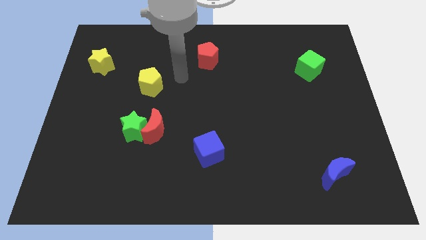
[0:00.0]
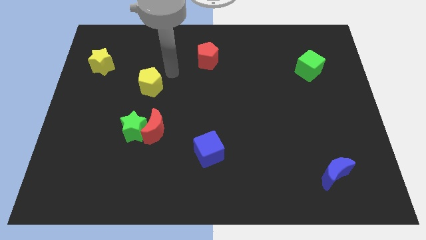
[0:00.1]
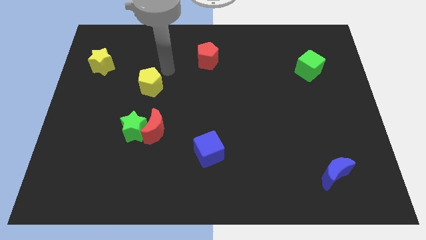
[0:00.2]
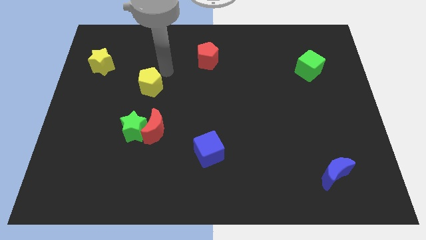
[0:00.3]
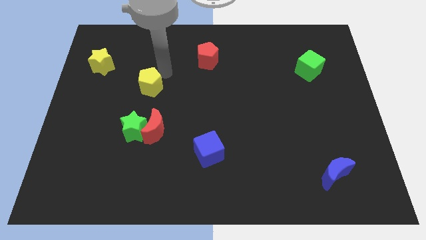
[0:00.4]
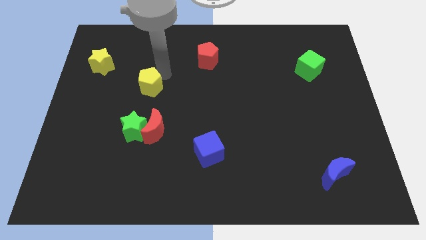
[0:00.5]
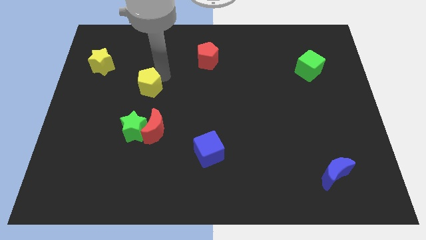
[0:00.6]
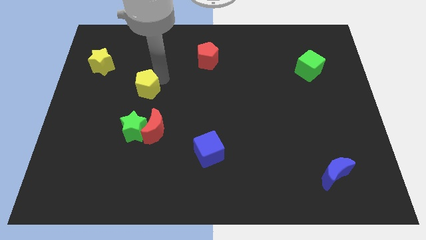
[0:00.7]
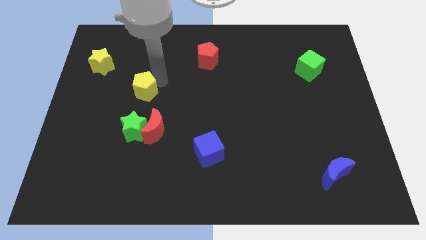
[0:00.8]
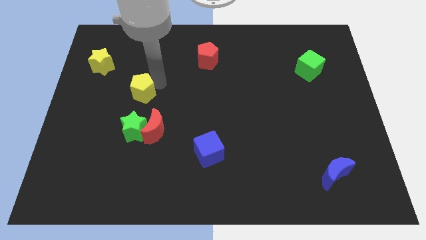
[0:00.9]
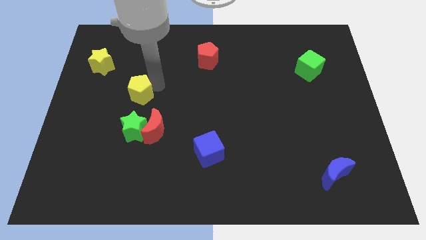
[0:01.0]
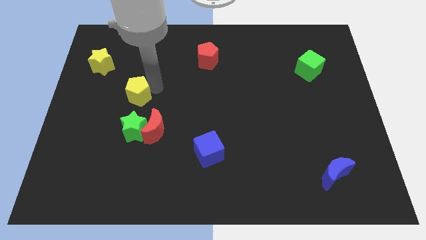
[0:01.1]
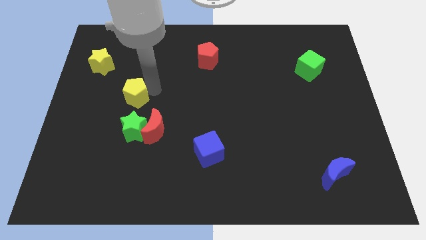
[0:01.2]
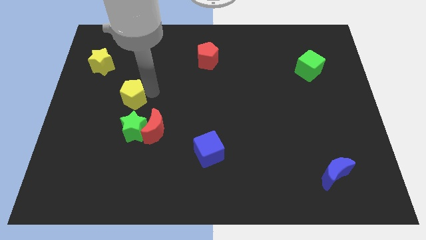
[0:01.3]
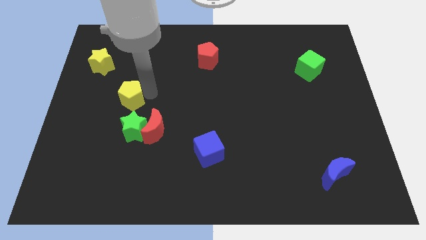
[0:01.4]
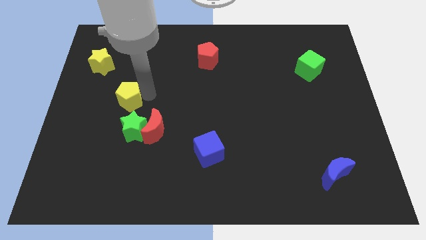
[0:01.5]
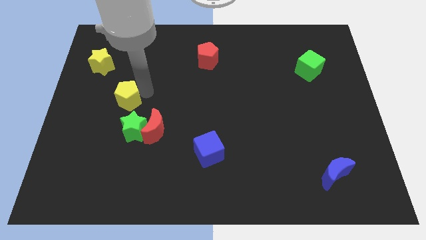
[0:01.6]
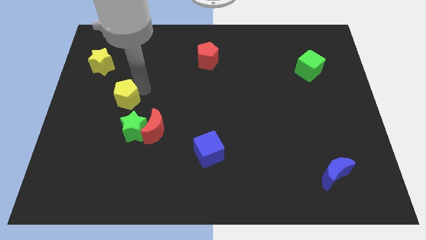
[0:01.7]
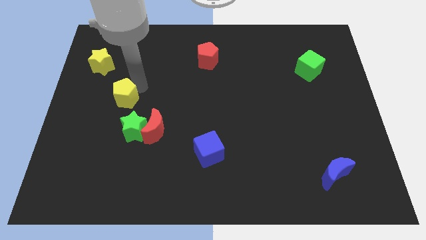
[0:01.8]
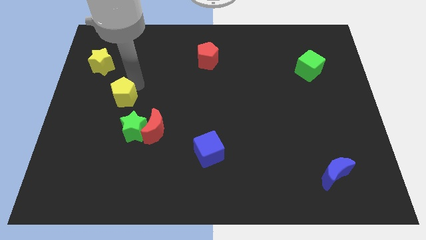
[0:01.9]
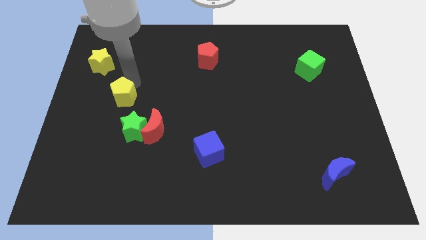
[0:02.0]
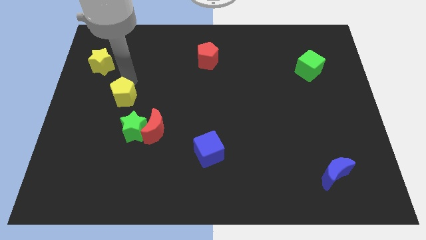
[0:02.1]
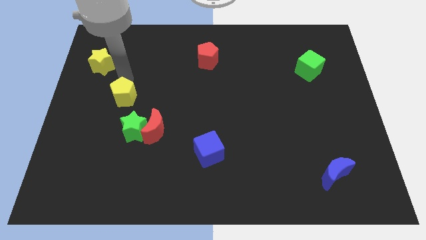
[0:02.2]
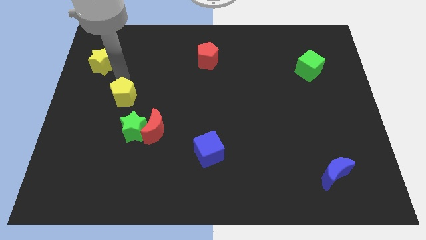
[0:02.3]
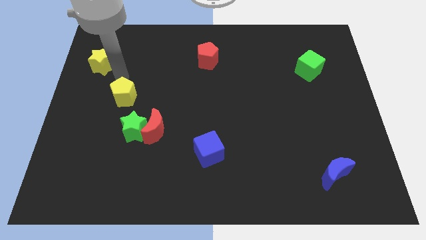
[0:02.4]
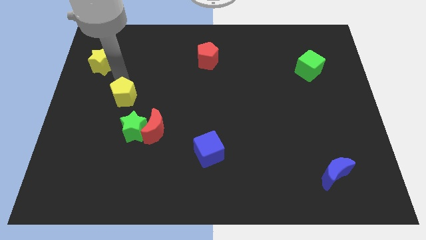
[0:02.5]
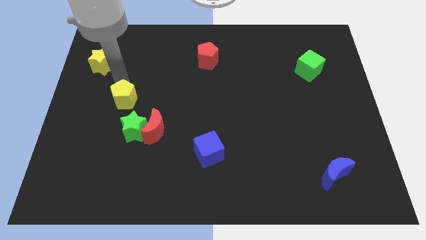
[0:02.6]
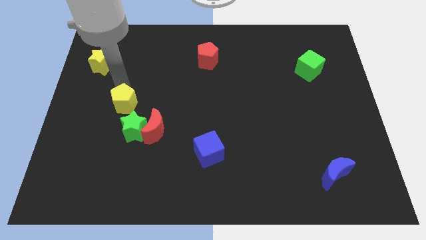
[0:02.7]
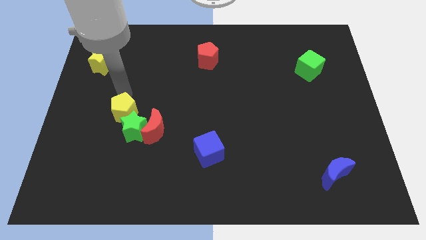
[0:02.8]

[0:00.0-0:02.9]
slightly move the yellow pentagon down

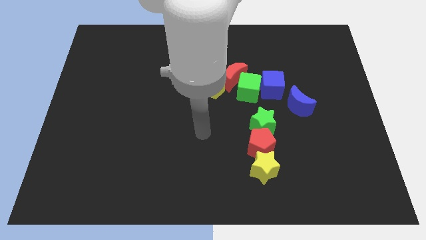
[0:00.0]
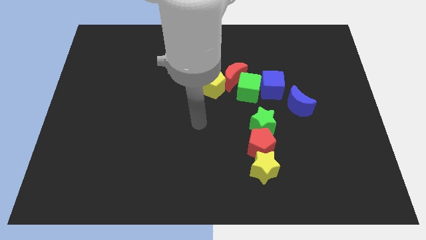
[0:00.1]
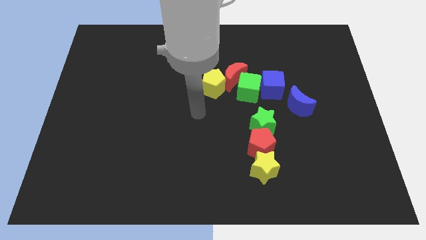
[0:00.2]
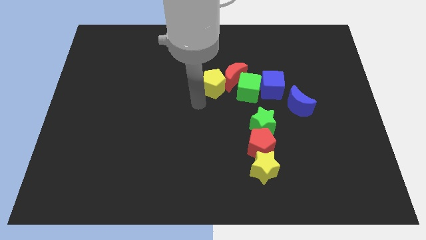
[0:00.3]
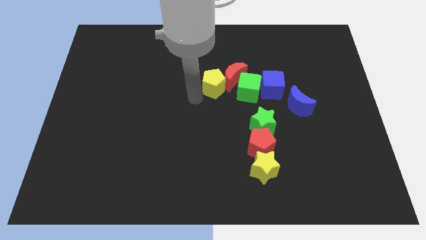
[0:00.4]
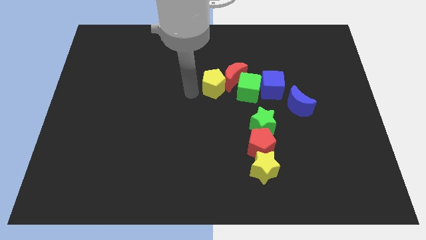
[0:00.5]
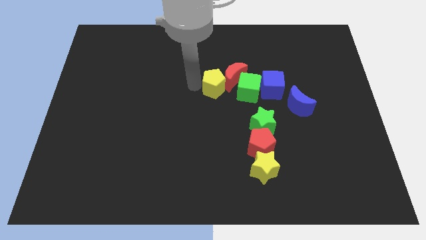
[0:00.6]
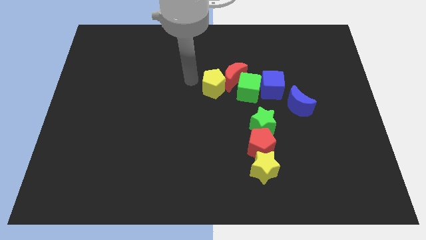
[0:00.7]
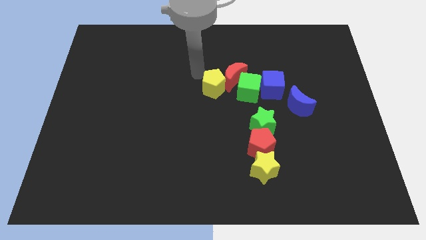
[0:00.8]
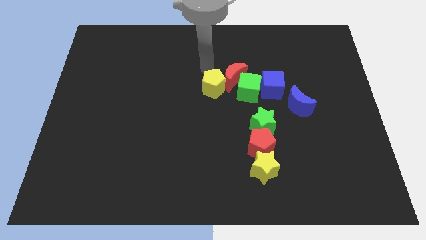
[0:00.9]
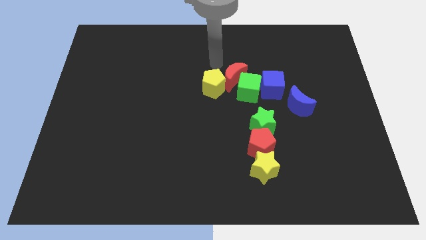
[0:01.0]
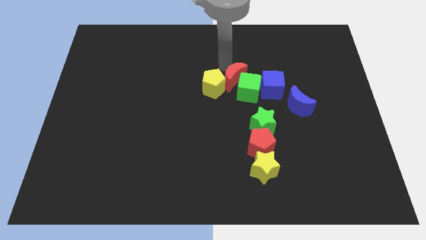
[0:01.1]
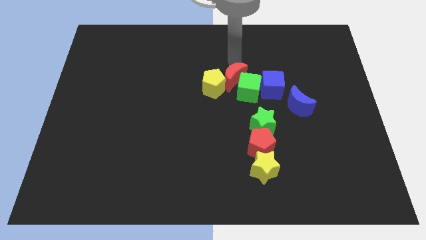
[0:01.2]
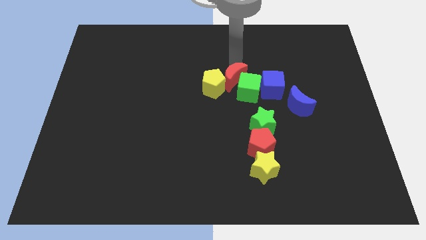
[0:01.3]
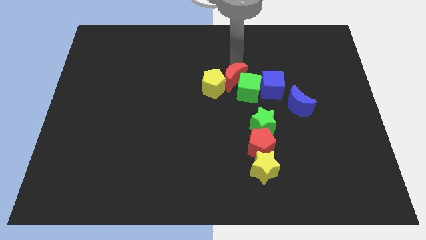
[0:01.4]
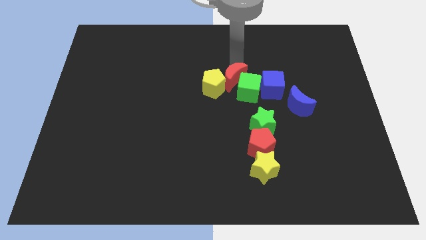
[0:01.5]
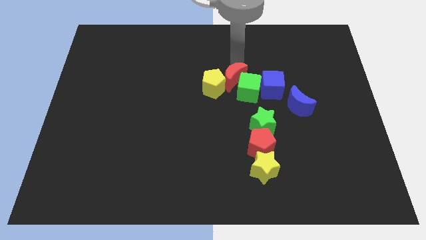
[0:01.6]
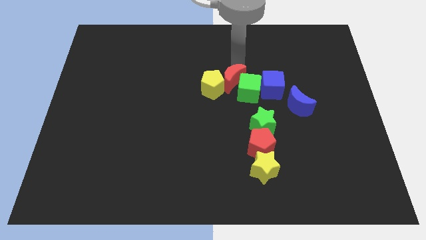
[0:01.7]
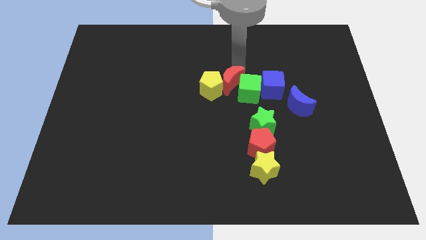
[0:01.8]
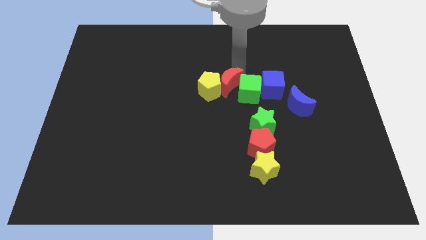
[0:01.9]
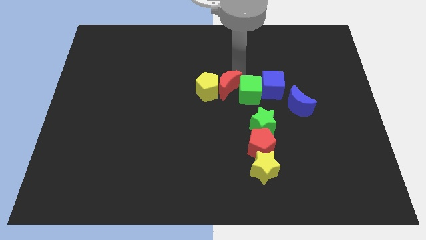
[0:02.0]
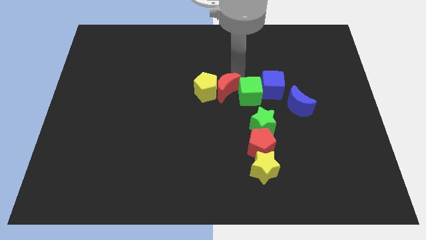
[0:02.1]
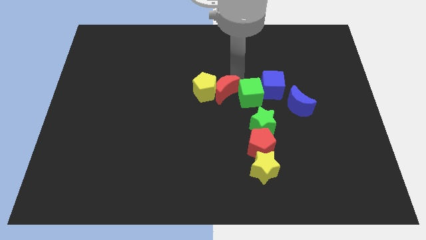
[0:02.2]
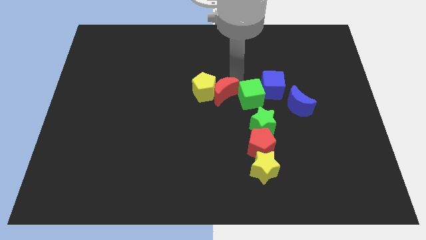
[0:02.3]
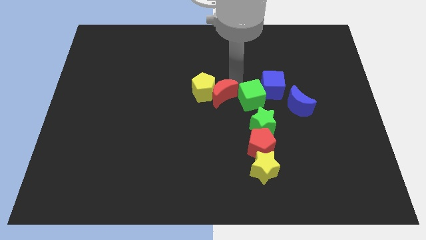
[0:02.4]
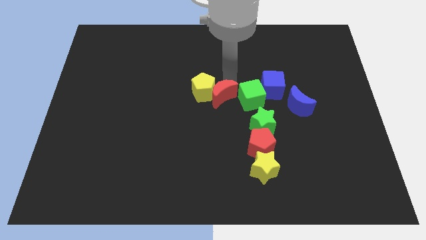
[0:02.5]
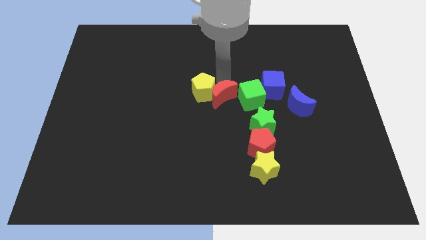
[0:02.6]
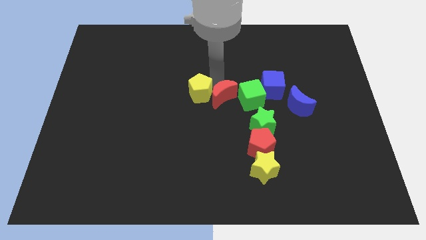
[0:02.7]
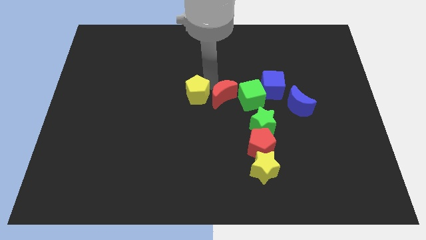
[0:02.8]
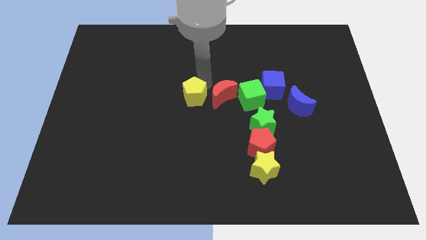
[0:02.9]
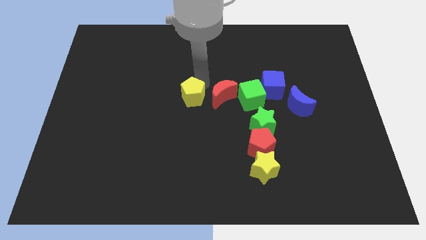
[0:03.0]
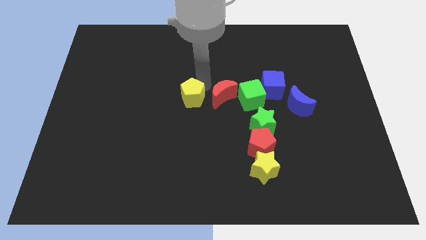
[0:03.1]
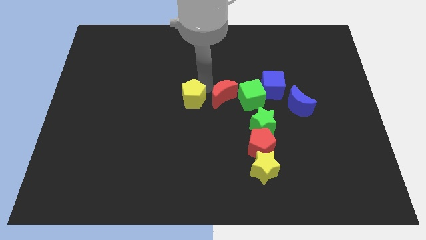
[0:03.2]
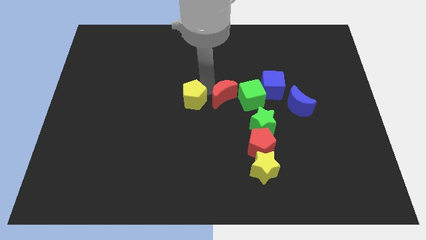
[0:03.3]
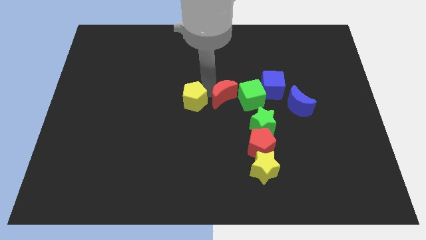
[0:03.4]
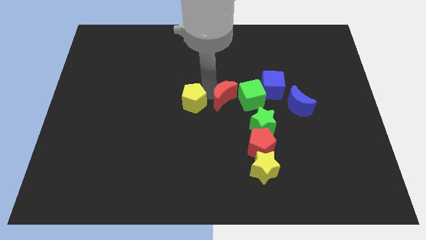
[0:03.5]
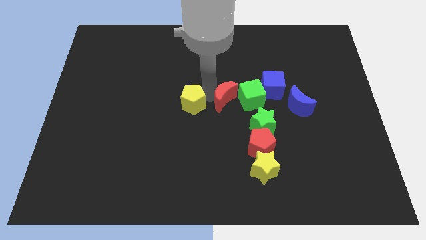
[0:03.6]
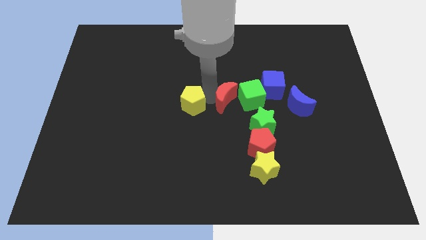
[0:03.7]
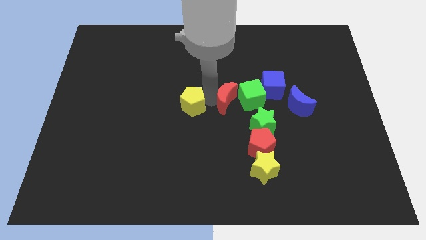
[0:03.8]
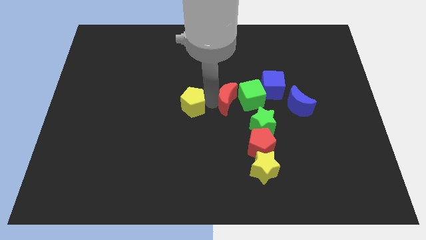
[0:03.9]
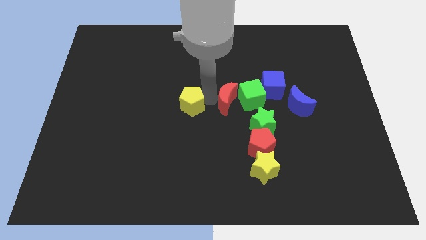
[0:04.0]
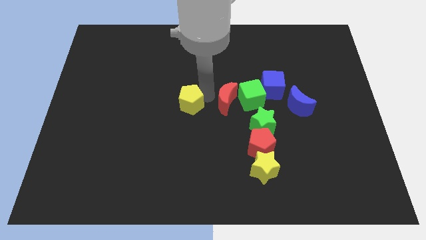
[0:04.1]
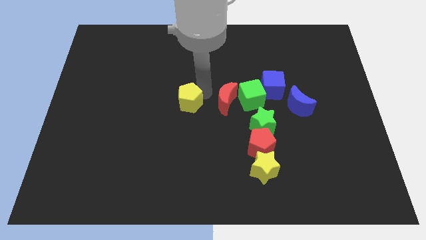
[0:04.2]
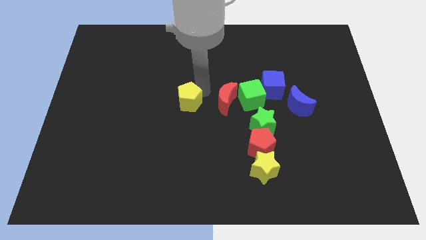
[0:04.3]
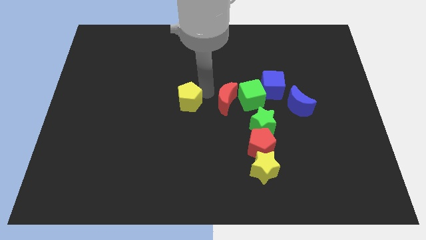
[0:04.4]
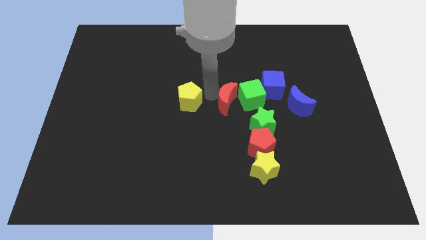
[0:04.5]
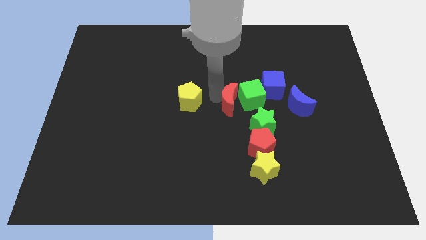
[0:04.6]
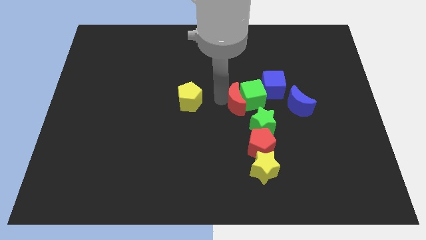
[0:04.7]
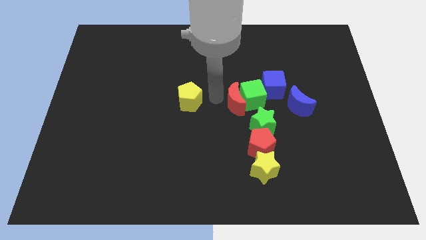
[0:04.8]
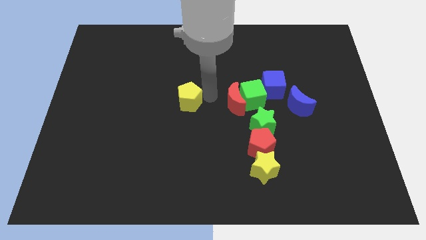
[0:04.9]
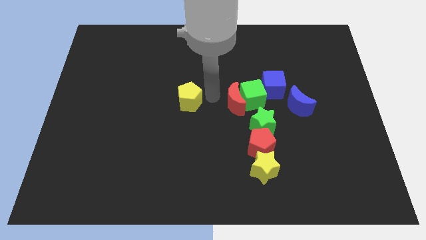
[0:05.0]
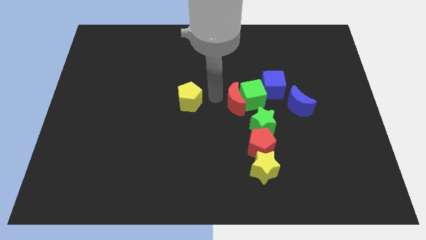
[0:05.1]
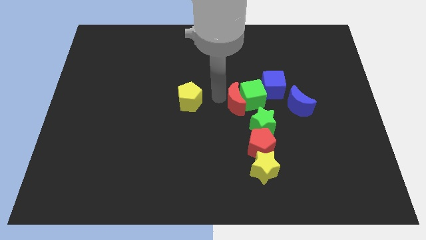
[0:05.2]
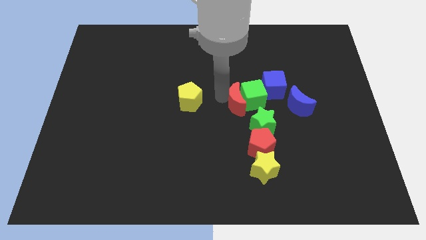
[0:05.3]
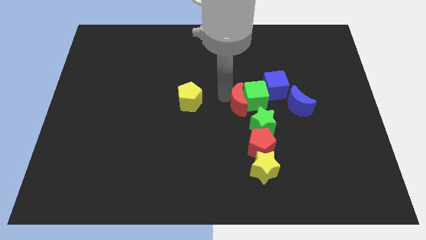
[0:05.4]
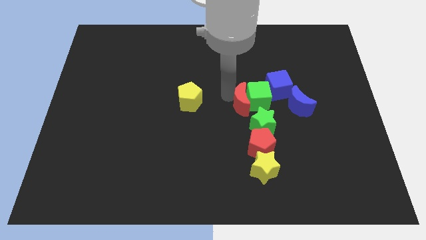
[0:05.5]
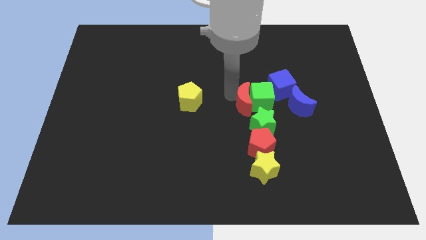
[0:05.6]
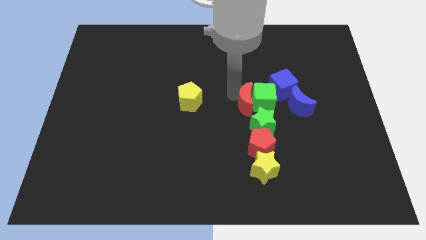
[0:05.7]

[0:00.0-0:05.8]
push the red moon a little bit down and to the right diagonally
